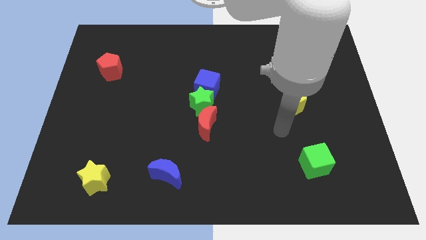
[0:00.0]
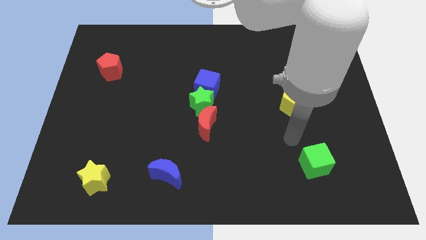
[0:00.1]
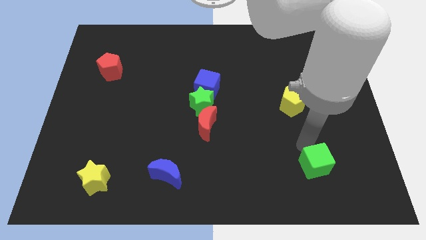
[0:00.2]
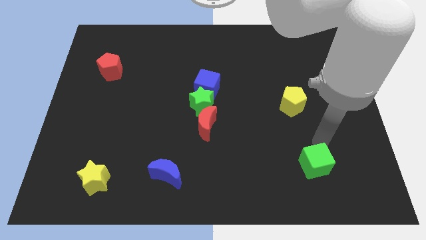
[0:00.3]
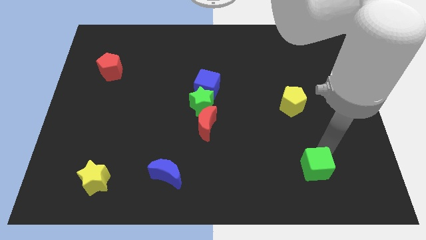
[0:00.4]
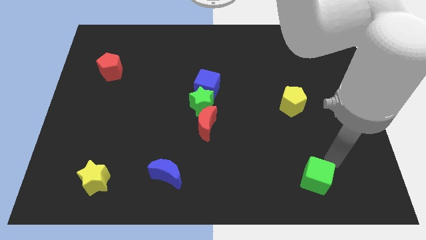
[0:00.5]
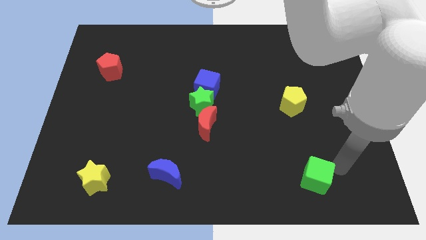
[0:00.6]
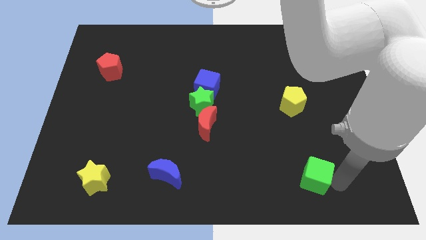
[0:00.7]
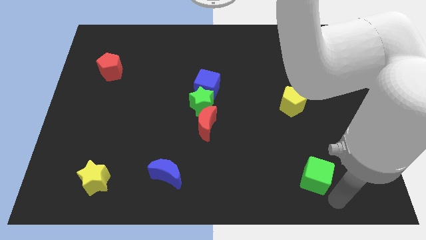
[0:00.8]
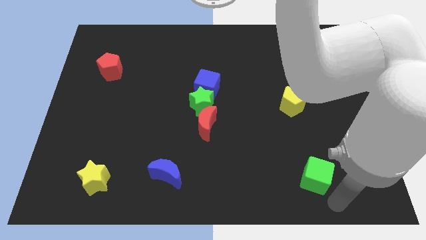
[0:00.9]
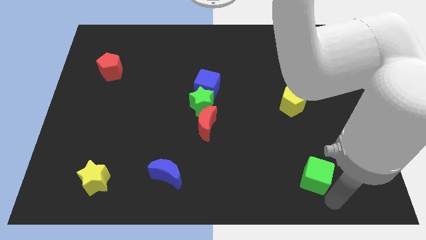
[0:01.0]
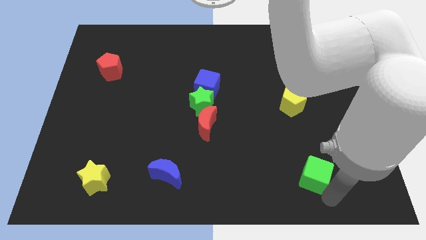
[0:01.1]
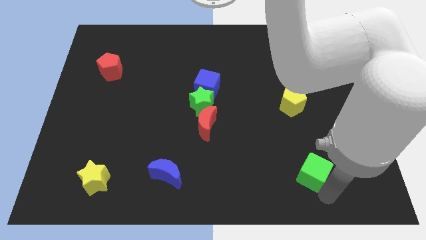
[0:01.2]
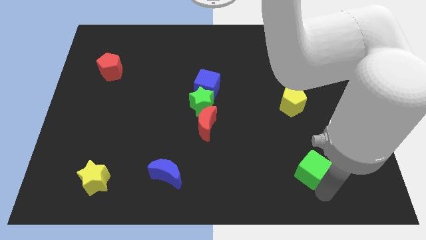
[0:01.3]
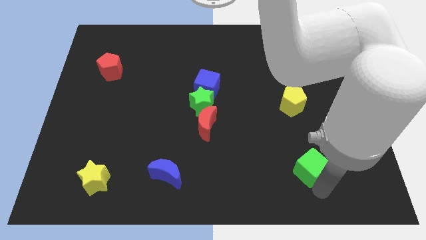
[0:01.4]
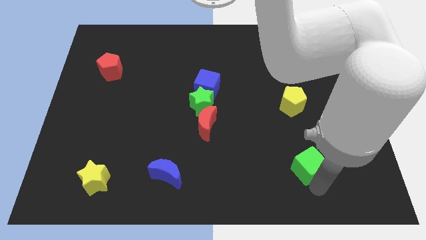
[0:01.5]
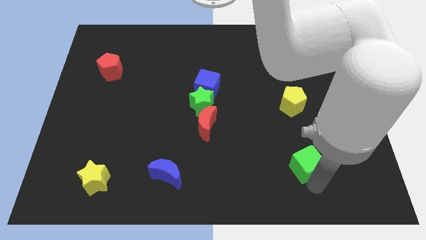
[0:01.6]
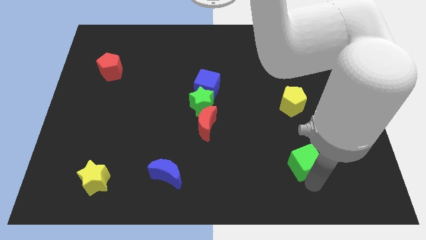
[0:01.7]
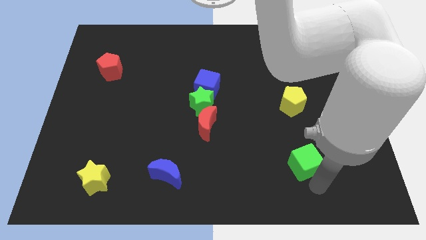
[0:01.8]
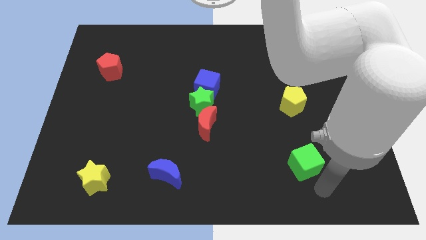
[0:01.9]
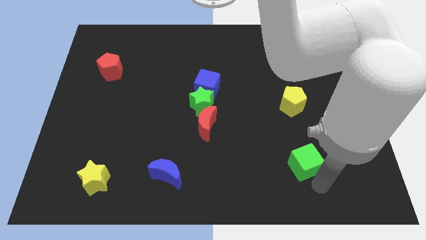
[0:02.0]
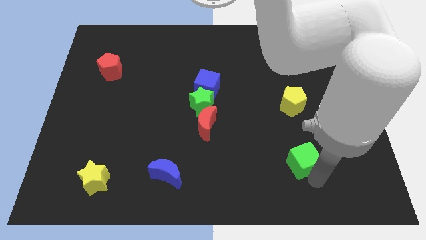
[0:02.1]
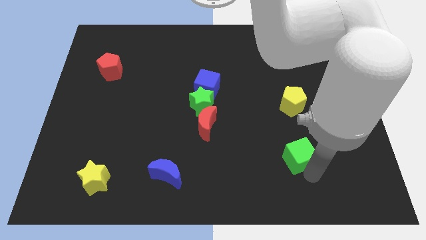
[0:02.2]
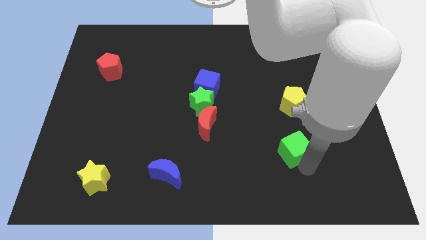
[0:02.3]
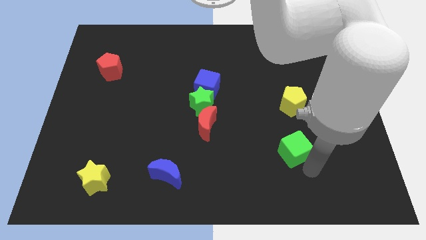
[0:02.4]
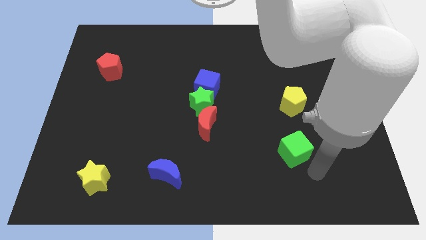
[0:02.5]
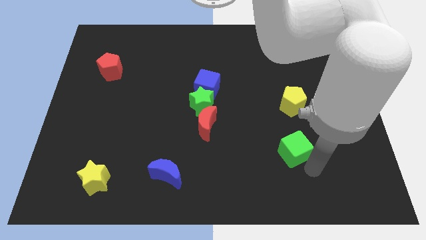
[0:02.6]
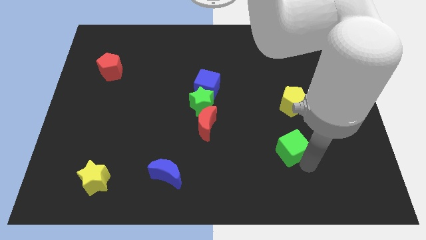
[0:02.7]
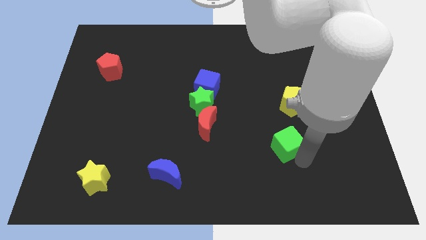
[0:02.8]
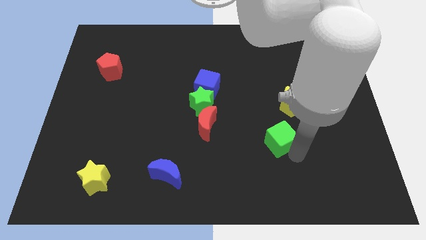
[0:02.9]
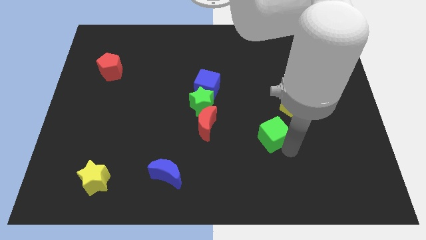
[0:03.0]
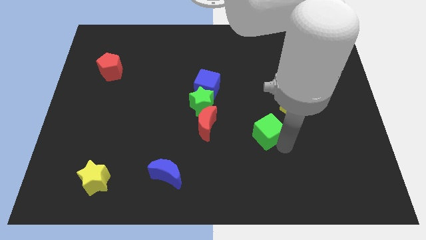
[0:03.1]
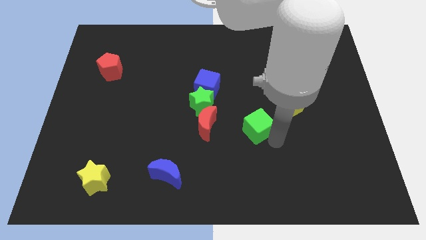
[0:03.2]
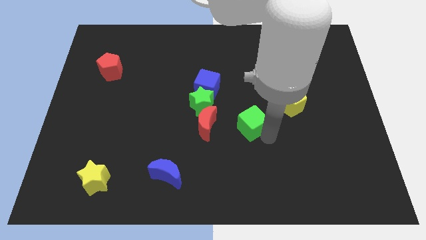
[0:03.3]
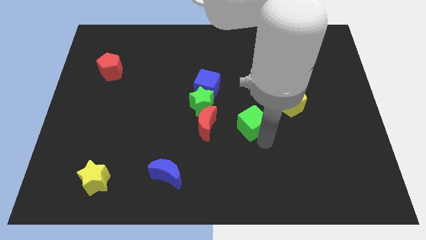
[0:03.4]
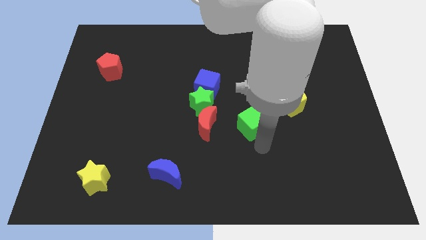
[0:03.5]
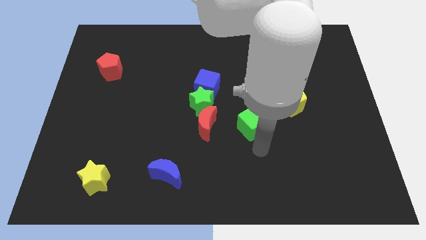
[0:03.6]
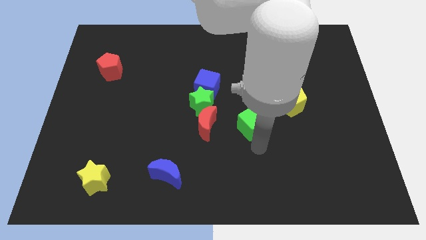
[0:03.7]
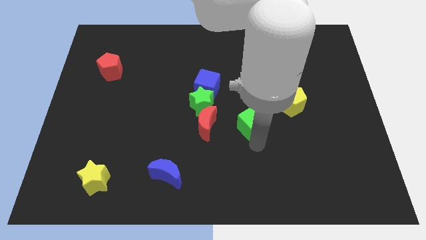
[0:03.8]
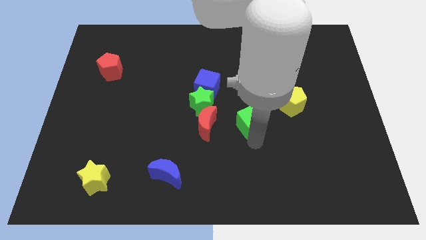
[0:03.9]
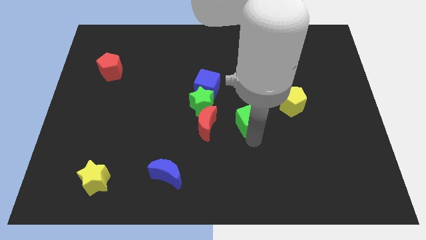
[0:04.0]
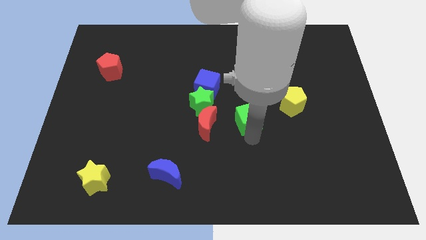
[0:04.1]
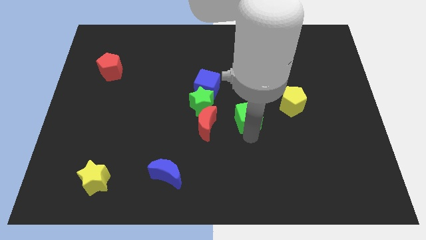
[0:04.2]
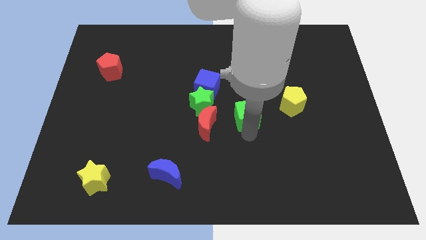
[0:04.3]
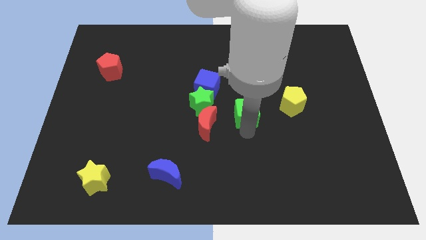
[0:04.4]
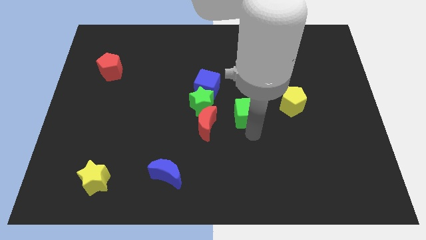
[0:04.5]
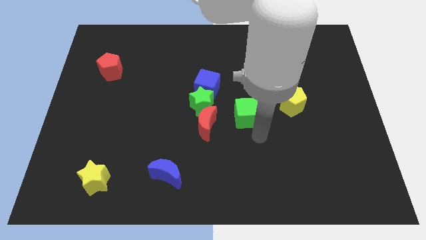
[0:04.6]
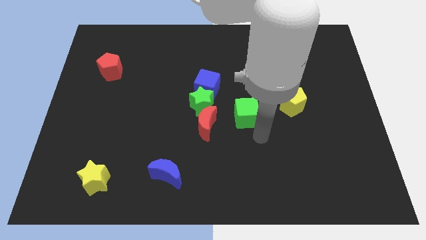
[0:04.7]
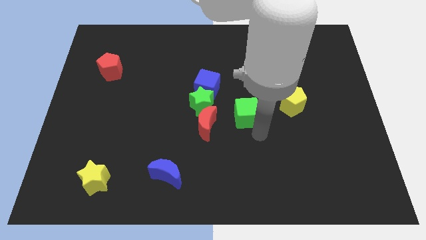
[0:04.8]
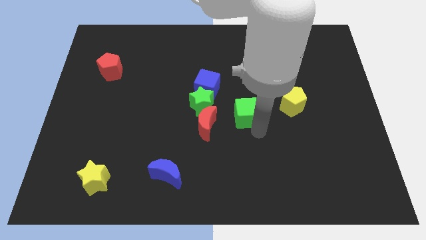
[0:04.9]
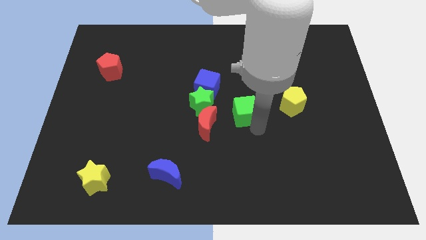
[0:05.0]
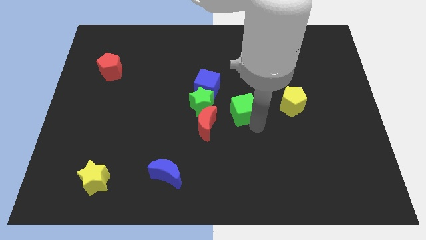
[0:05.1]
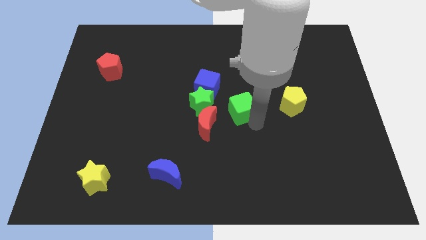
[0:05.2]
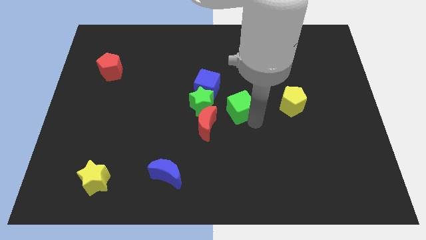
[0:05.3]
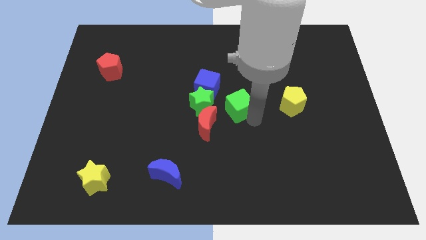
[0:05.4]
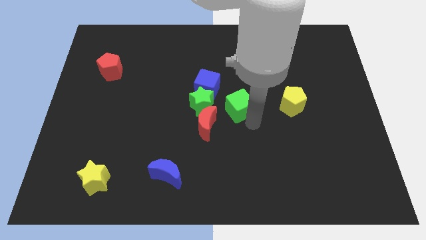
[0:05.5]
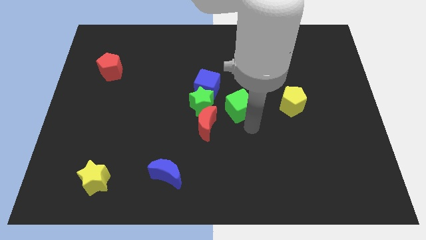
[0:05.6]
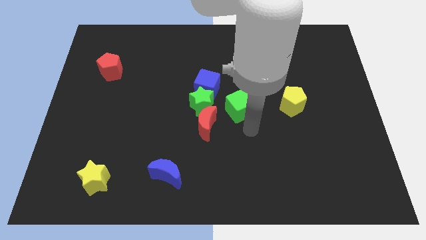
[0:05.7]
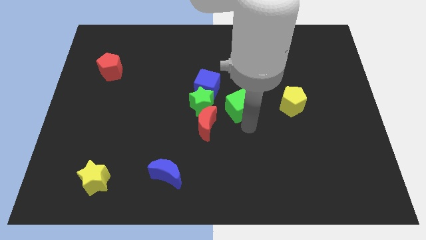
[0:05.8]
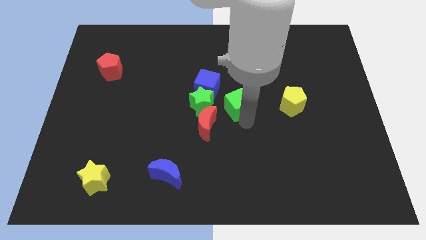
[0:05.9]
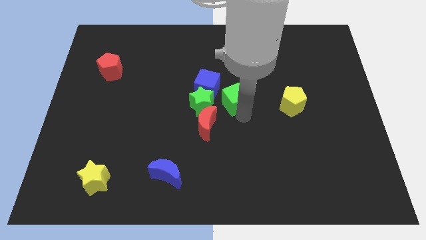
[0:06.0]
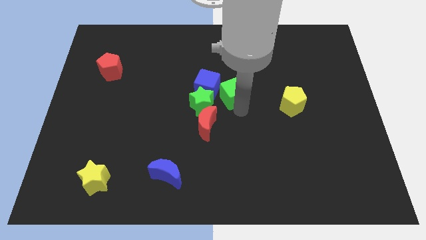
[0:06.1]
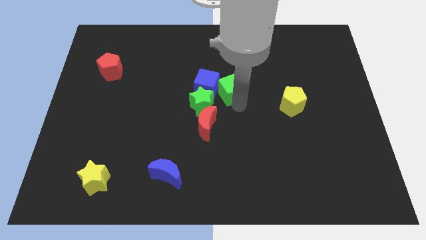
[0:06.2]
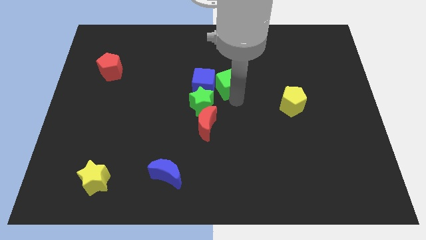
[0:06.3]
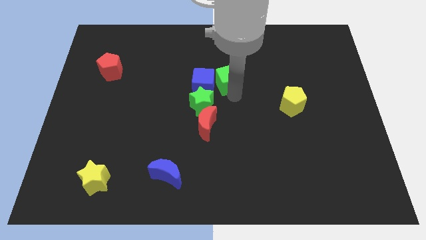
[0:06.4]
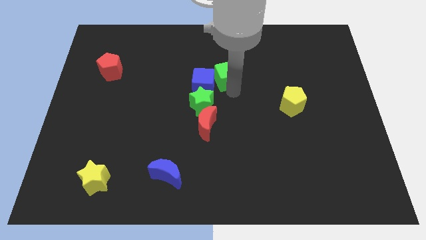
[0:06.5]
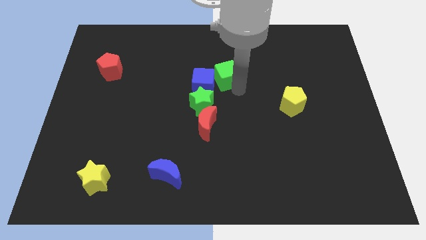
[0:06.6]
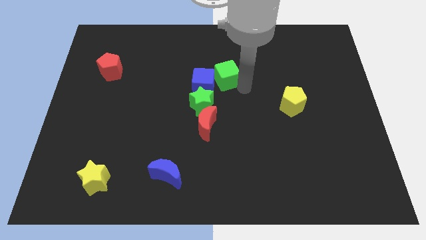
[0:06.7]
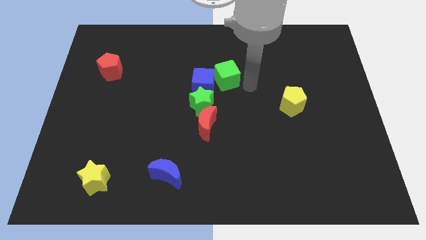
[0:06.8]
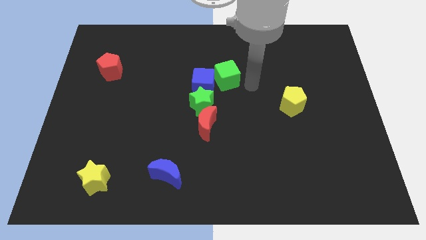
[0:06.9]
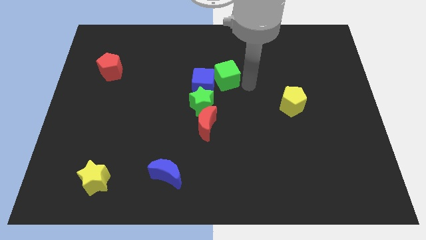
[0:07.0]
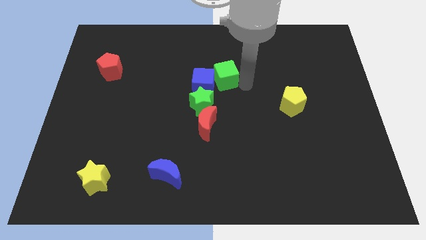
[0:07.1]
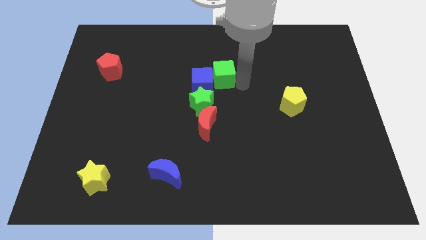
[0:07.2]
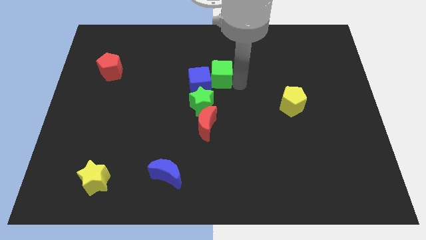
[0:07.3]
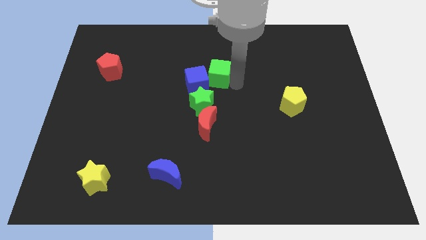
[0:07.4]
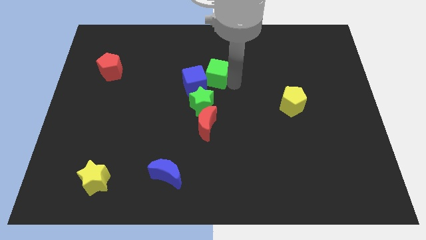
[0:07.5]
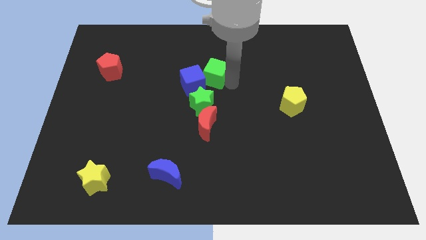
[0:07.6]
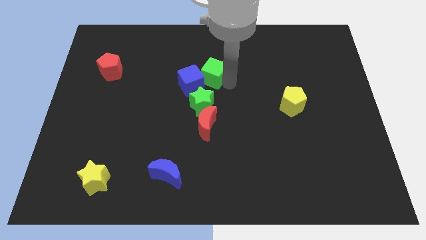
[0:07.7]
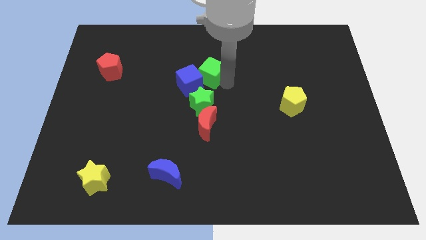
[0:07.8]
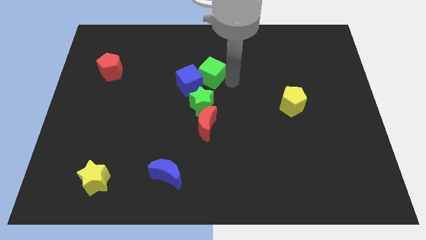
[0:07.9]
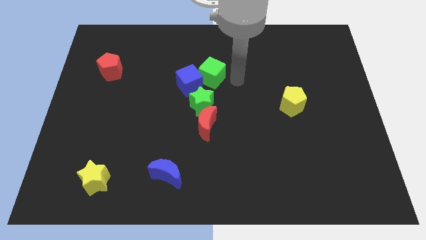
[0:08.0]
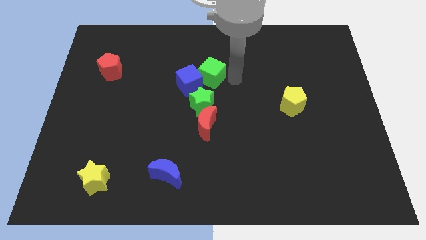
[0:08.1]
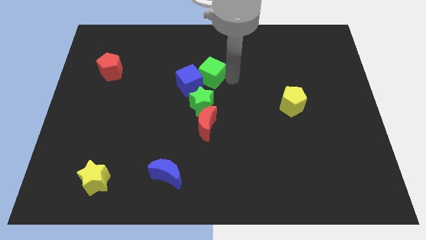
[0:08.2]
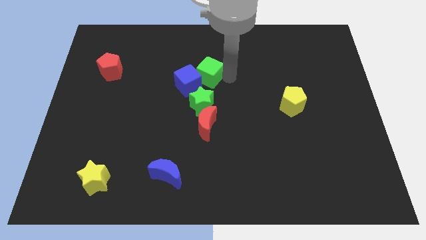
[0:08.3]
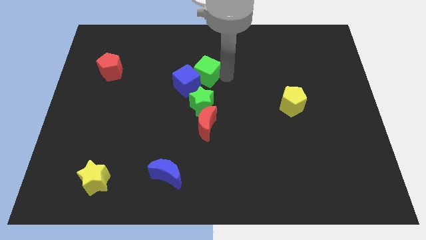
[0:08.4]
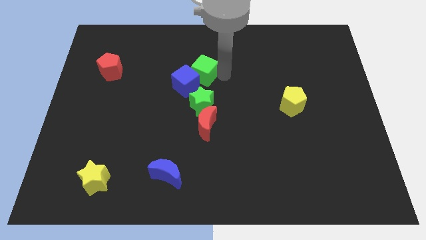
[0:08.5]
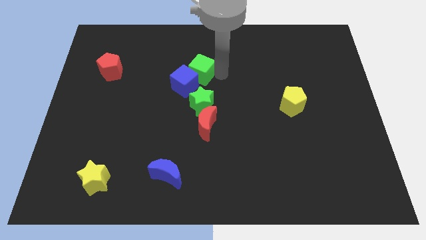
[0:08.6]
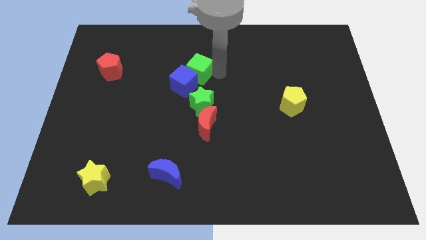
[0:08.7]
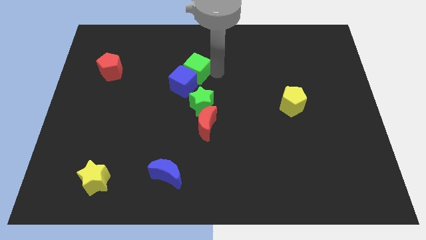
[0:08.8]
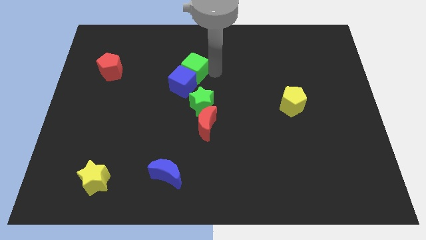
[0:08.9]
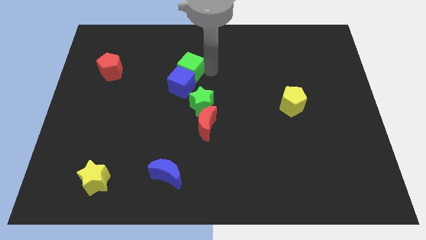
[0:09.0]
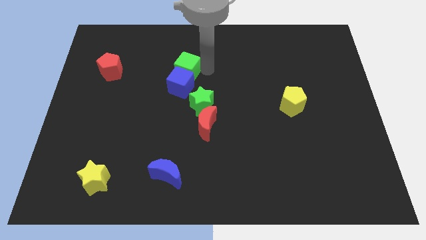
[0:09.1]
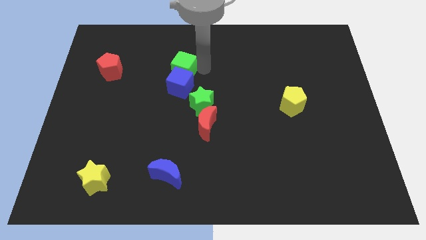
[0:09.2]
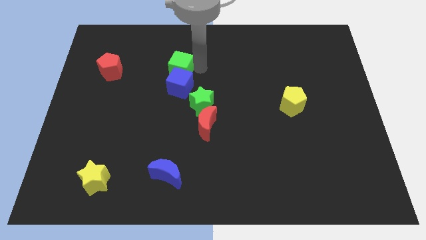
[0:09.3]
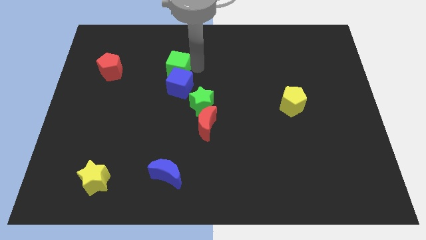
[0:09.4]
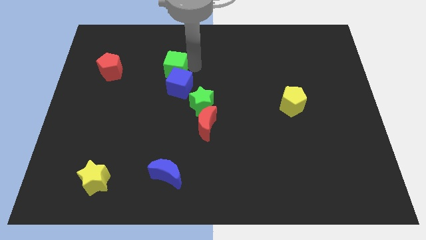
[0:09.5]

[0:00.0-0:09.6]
slide the green cube to the right side of the red pentagon
